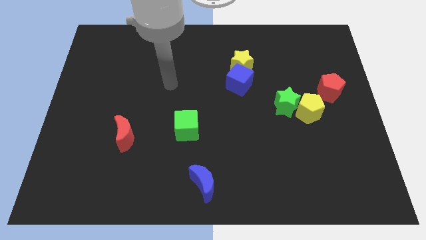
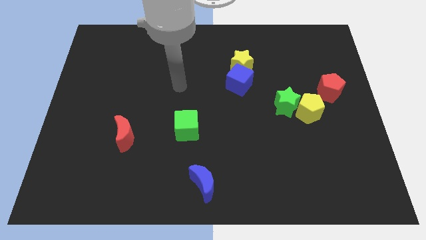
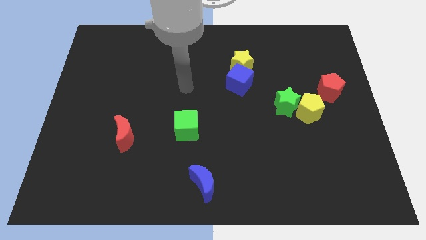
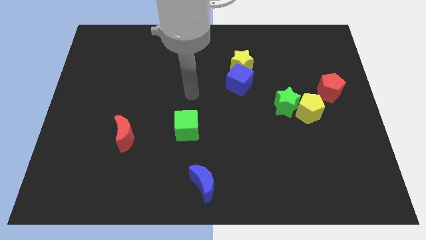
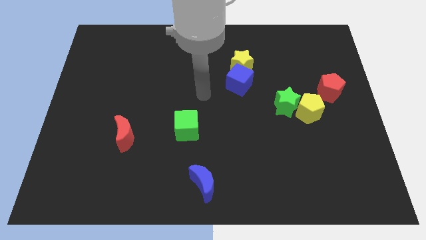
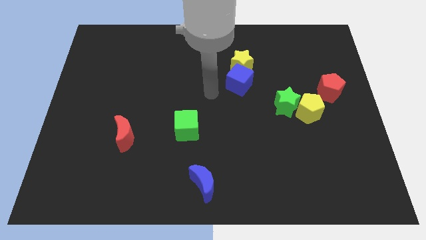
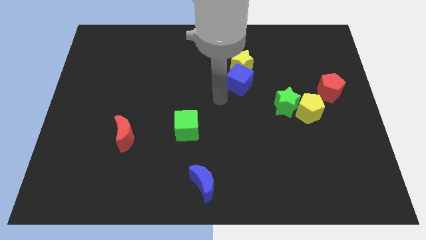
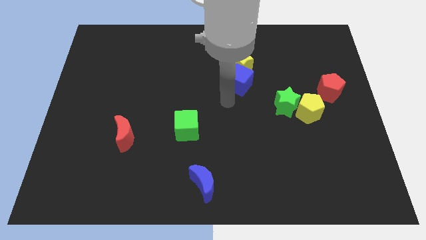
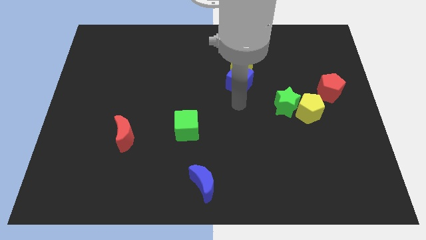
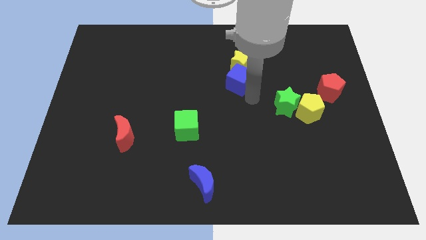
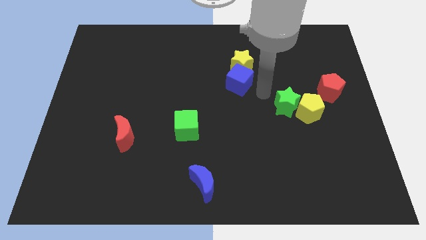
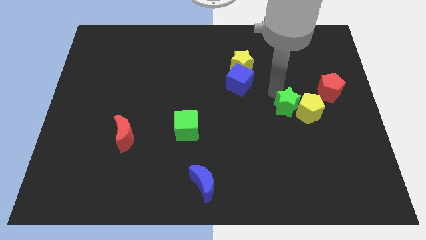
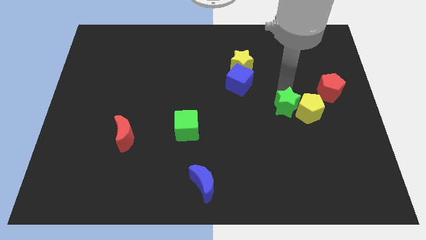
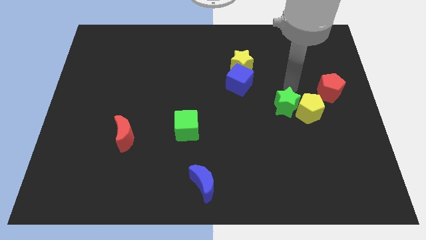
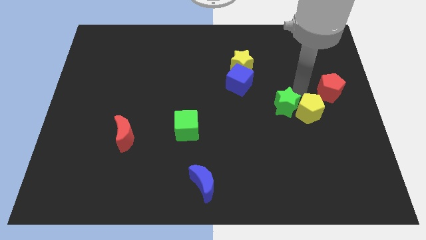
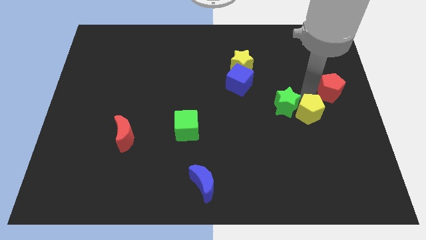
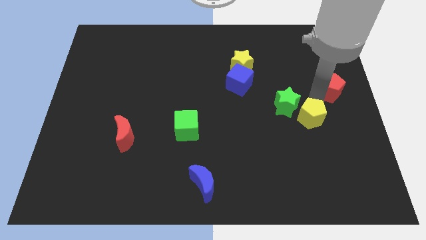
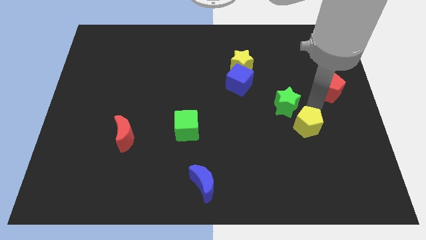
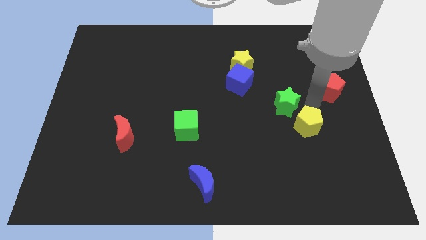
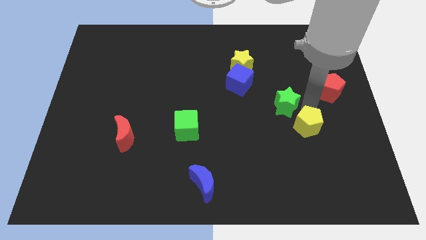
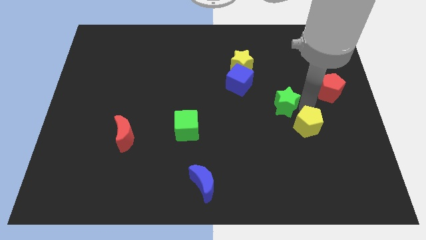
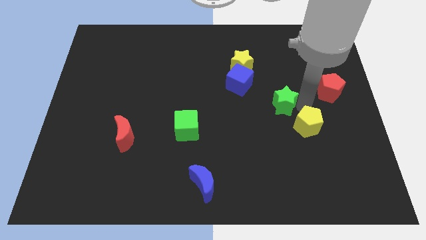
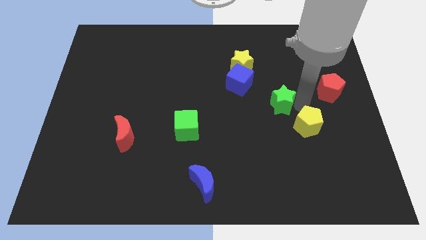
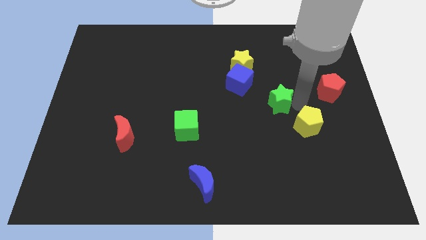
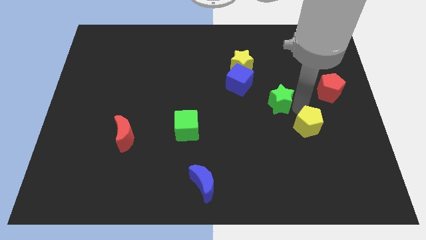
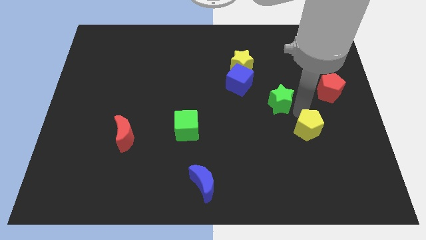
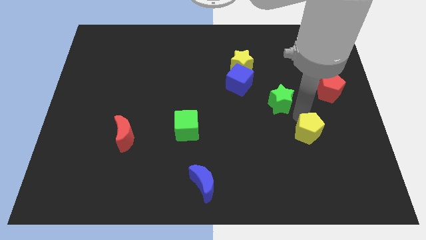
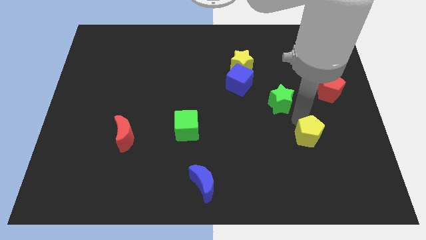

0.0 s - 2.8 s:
move the green star away from the yellow pentagon

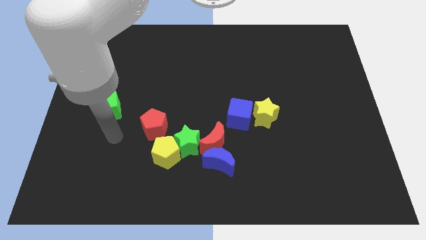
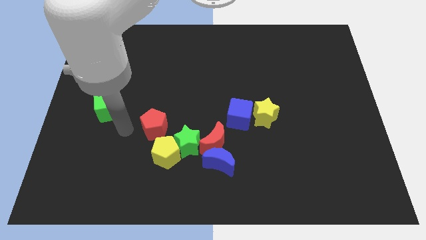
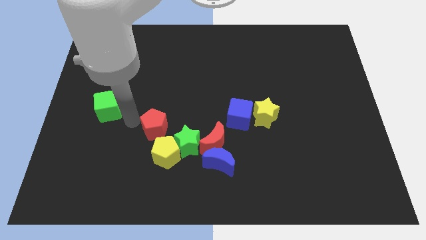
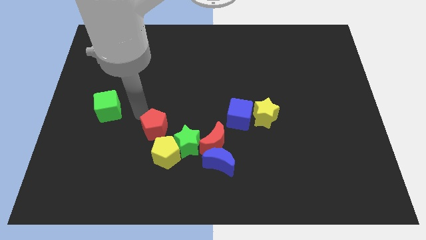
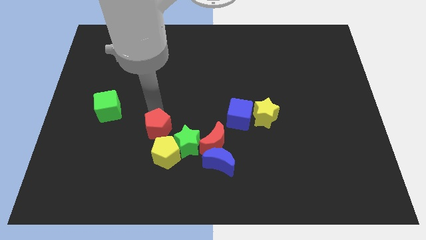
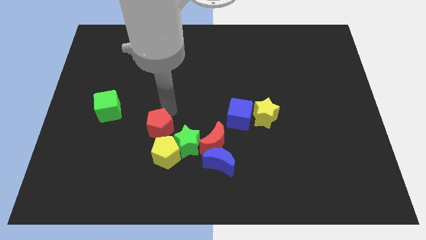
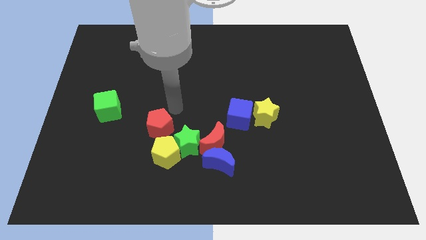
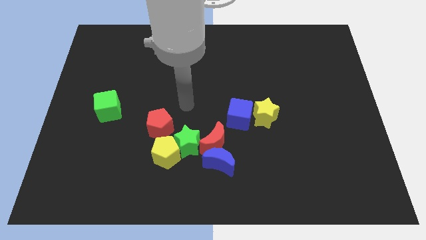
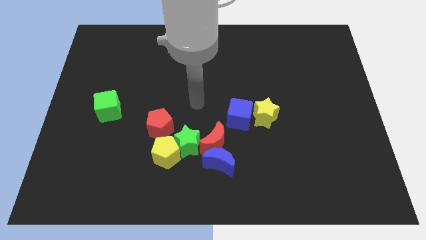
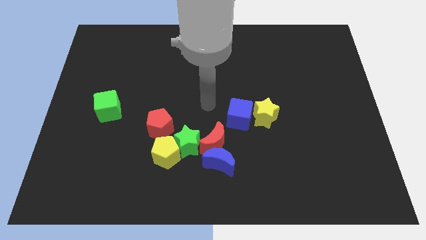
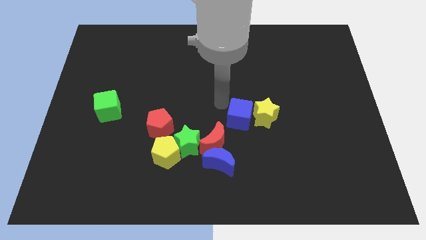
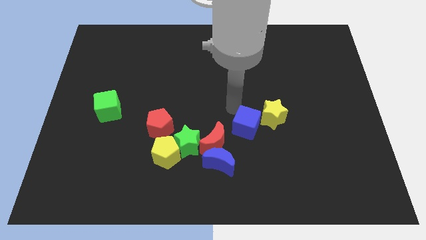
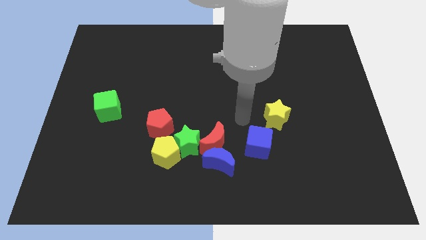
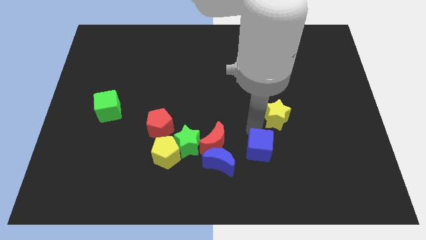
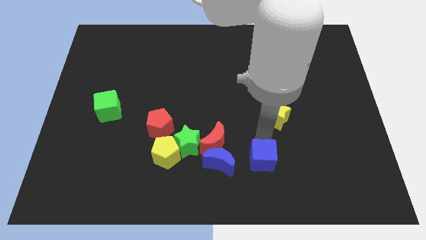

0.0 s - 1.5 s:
pull the yellow star apart from the blue cube

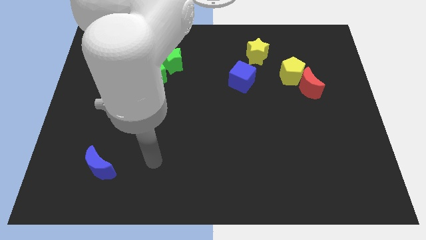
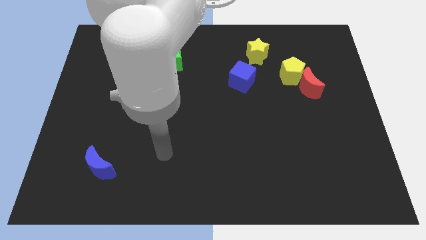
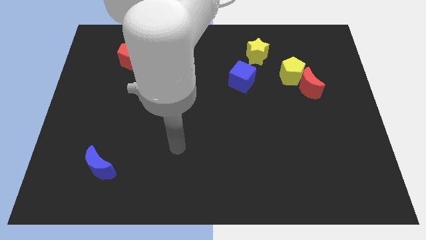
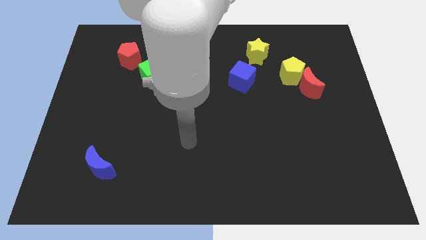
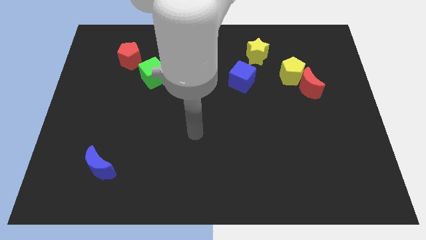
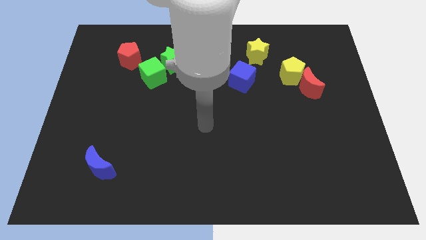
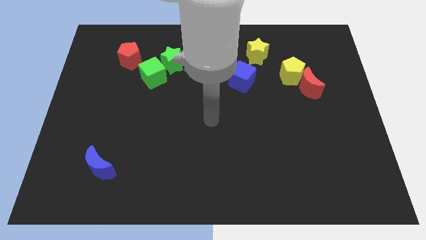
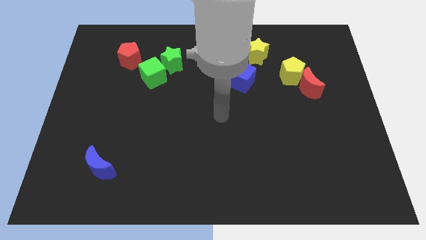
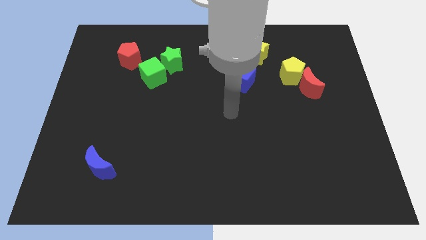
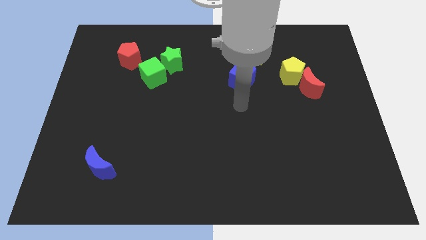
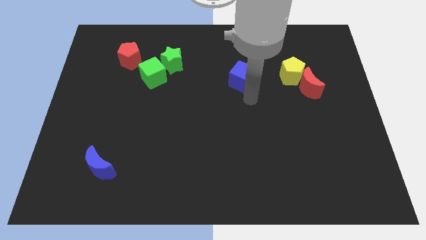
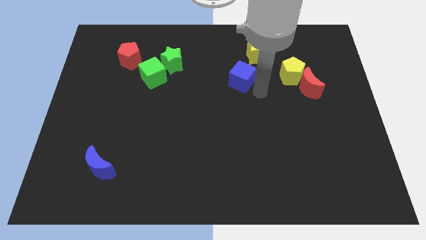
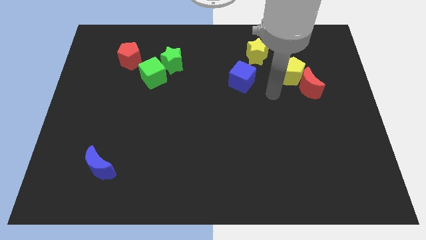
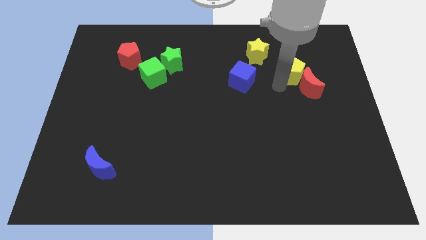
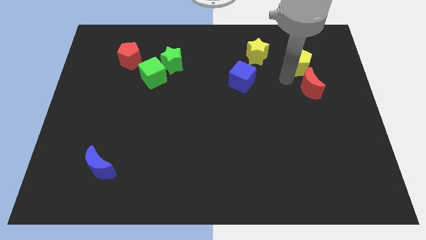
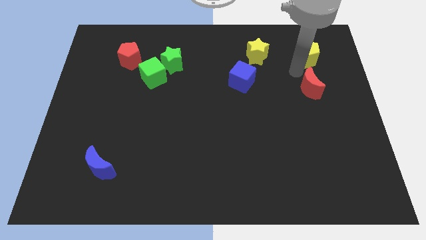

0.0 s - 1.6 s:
separate the red moon from the yellow pentagon

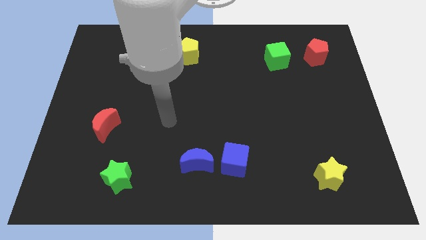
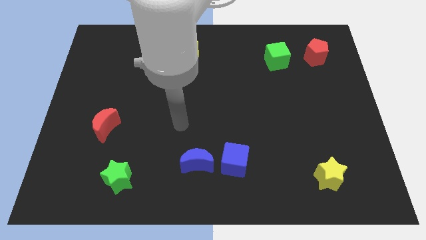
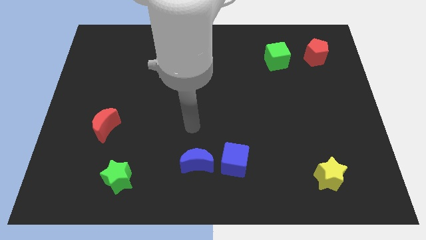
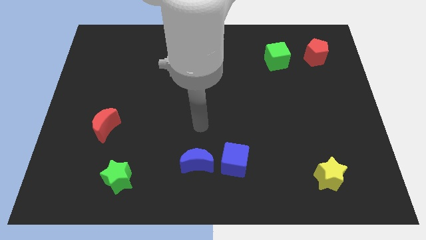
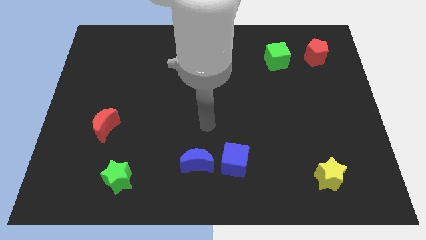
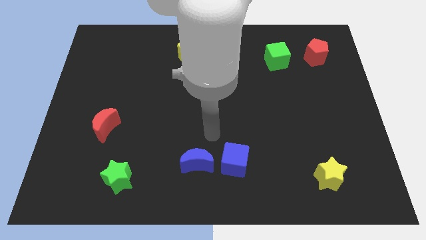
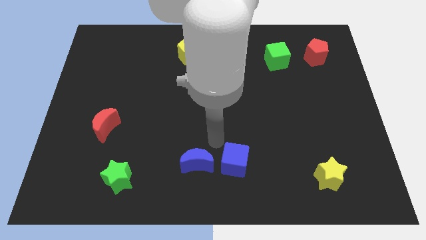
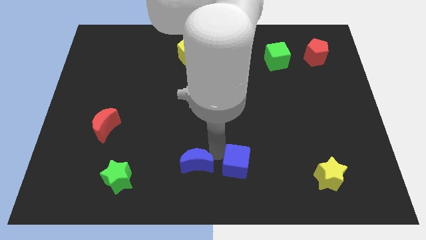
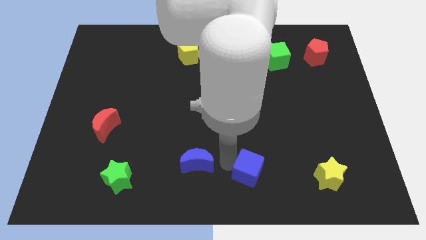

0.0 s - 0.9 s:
pull the blue moon apart from the blue cube

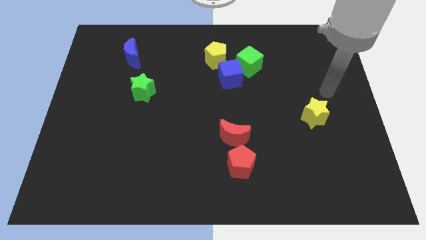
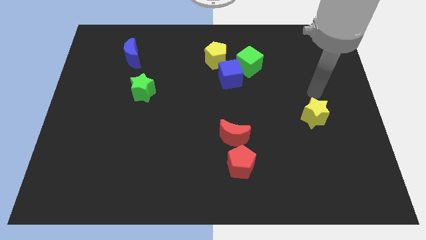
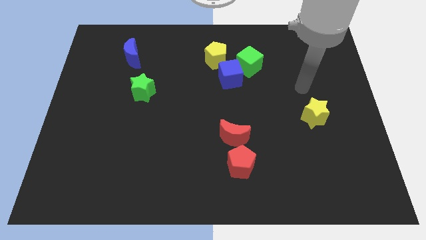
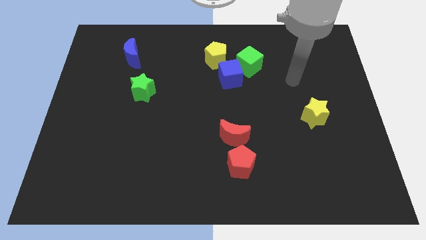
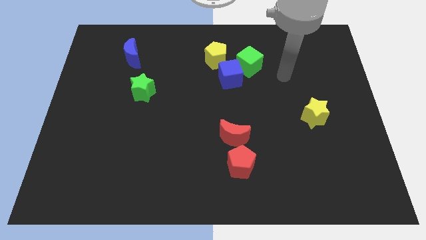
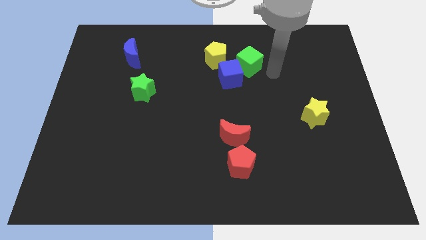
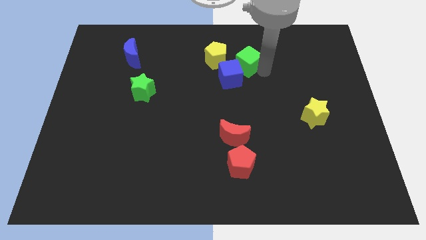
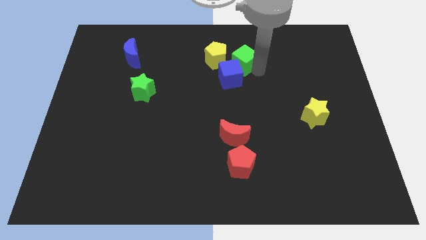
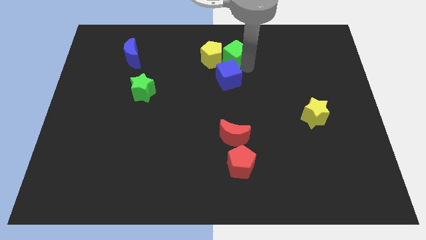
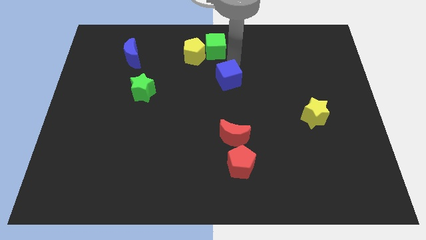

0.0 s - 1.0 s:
pull the blue cube apart from the green cube and yellow pentagon

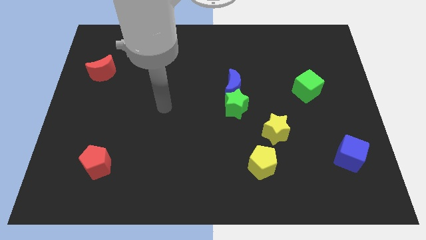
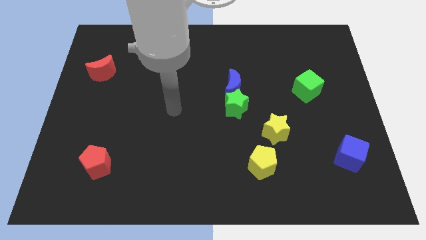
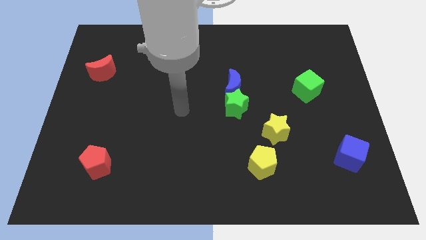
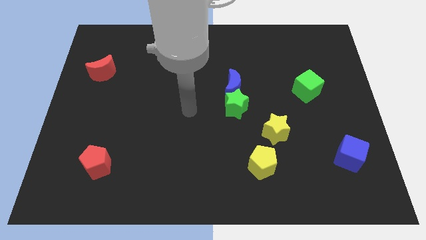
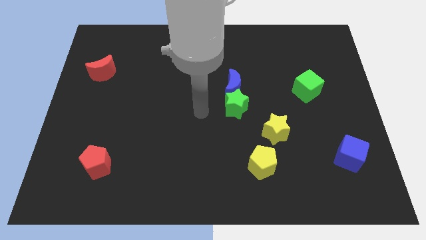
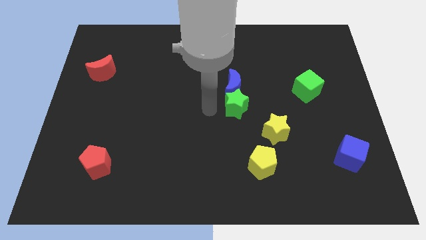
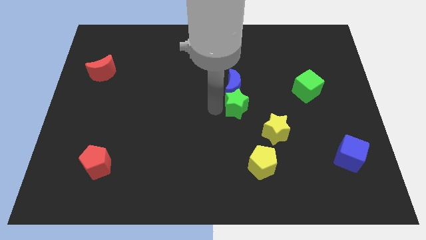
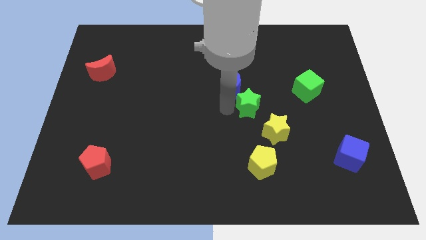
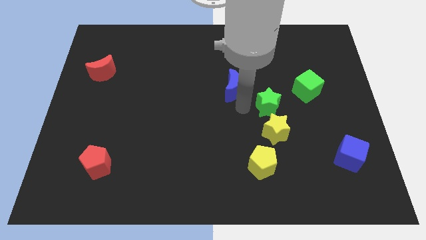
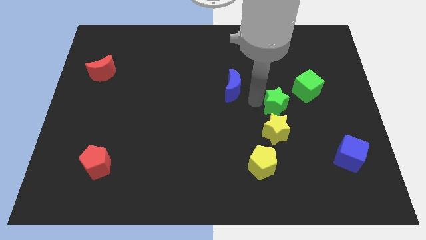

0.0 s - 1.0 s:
move the blue moon away from the green star

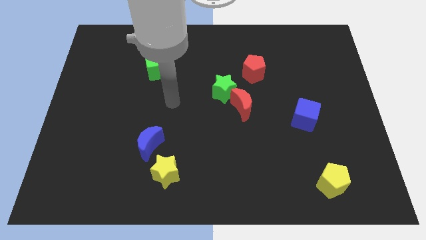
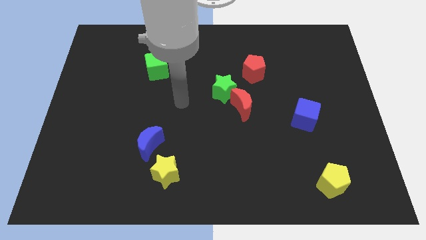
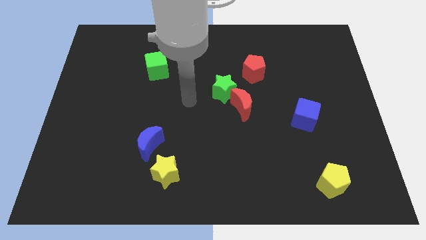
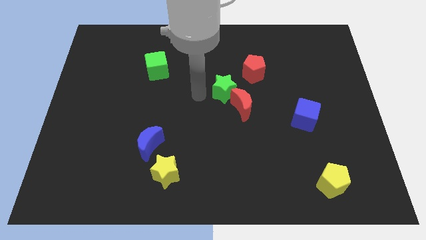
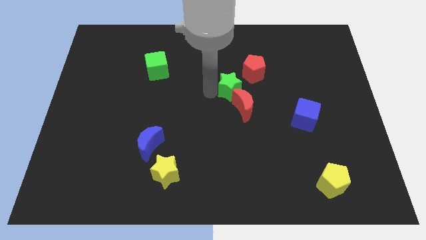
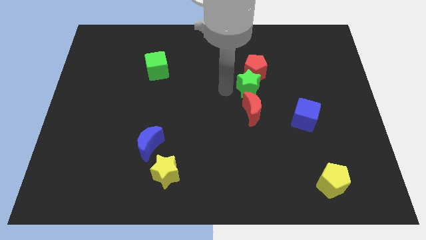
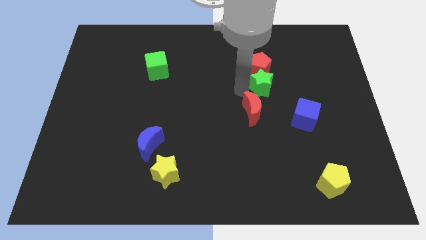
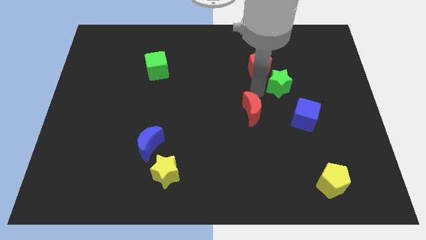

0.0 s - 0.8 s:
pull the red moon apart from the green star
